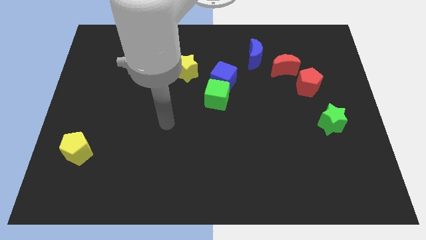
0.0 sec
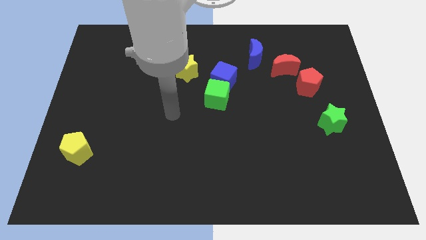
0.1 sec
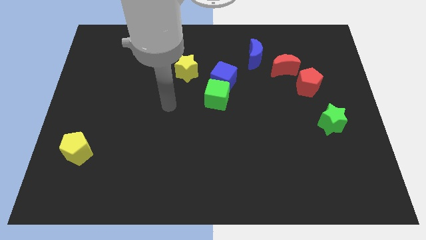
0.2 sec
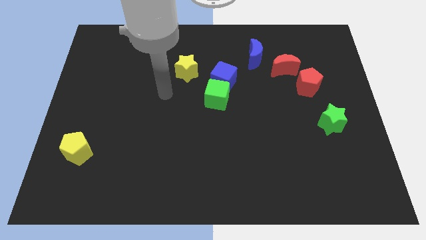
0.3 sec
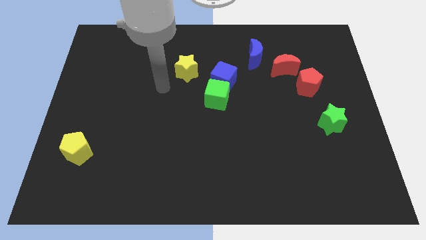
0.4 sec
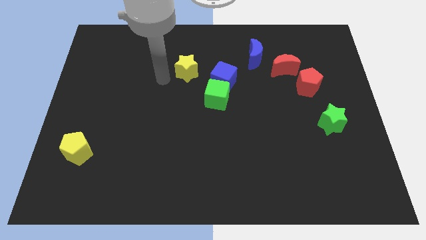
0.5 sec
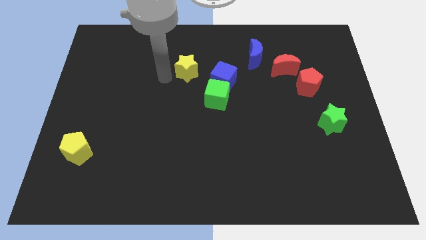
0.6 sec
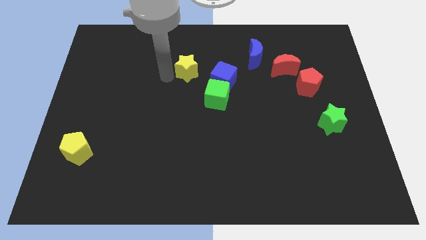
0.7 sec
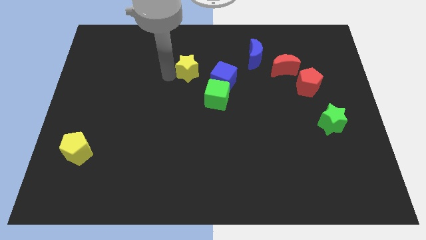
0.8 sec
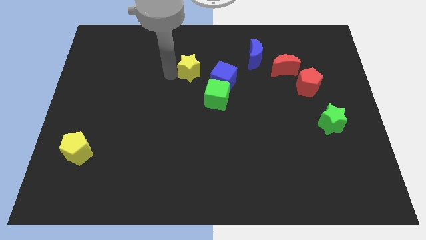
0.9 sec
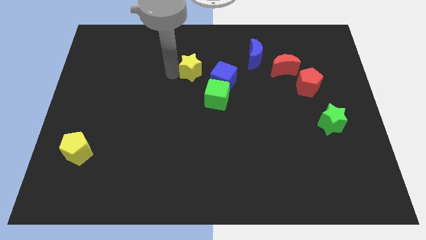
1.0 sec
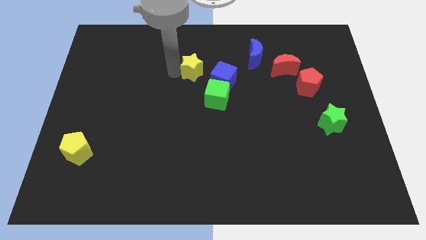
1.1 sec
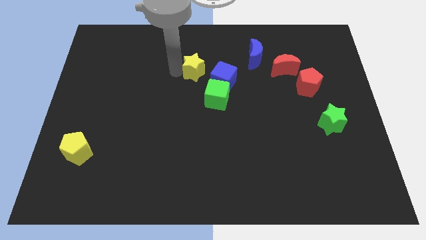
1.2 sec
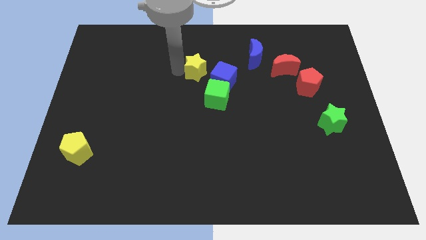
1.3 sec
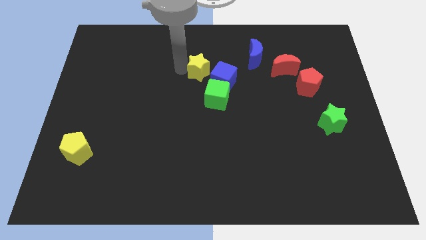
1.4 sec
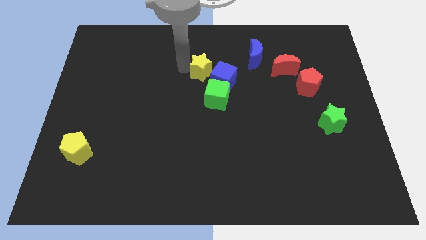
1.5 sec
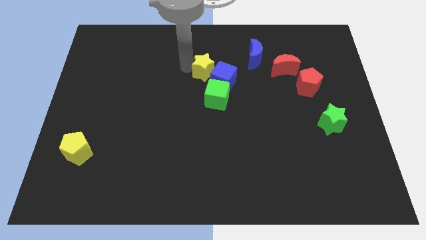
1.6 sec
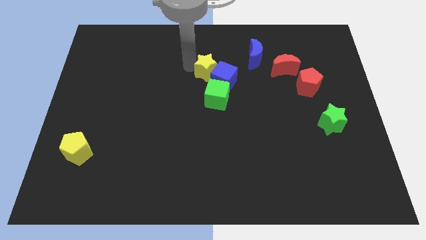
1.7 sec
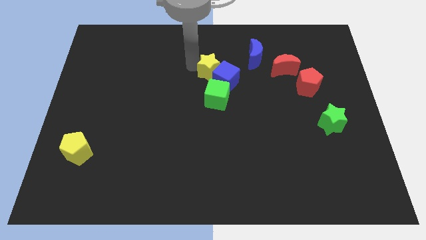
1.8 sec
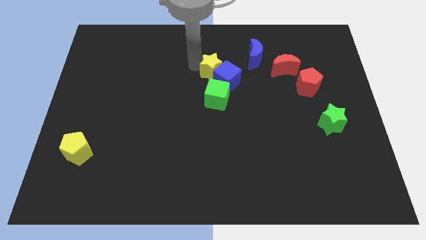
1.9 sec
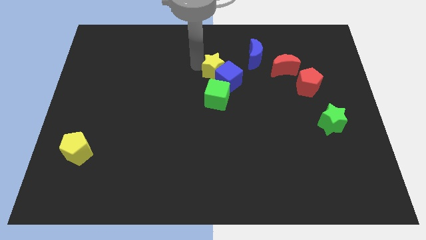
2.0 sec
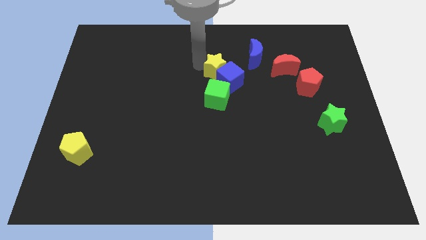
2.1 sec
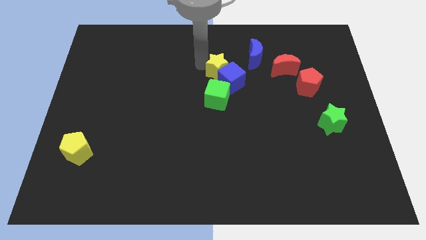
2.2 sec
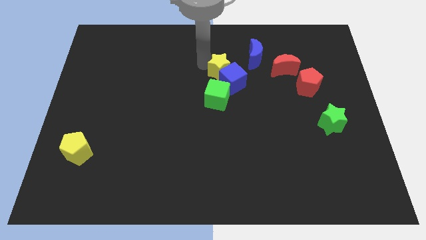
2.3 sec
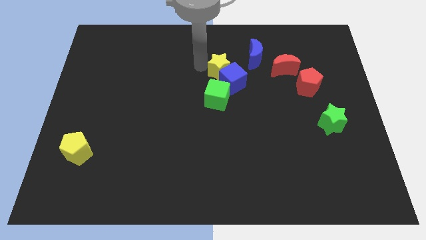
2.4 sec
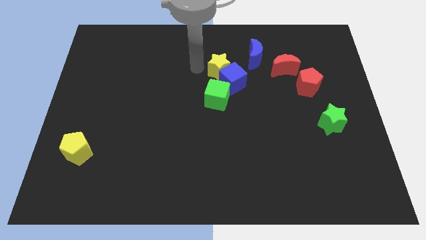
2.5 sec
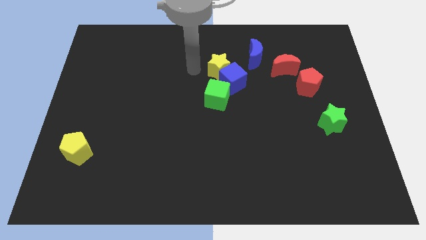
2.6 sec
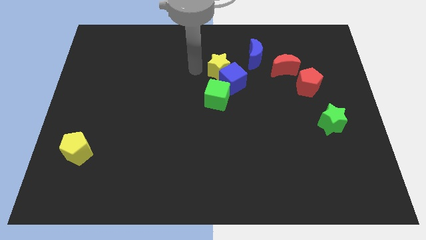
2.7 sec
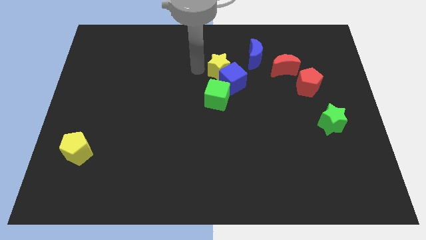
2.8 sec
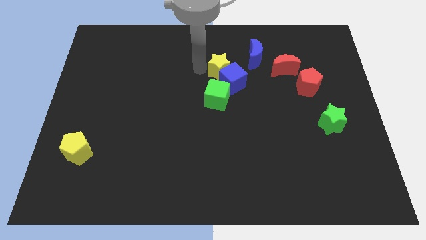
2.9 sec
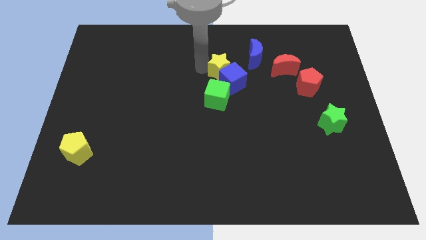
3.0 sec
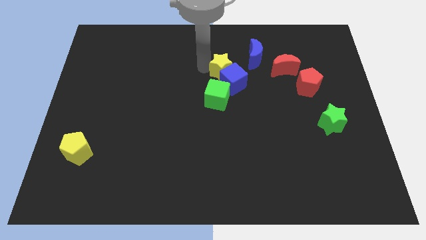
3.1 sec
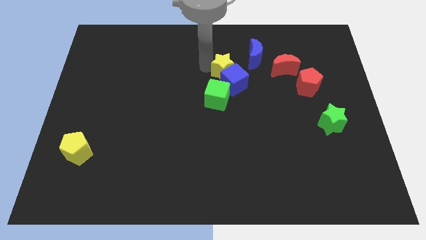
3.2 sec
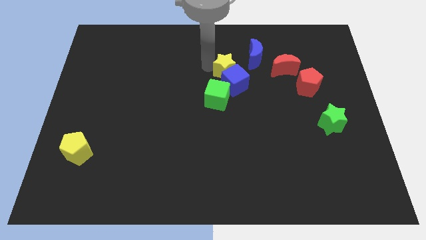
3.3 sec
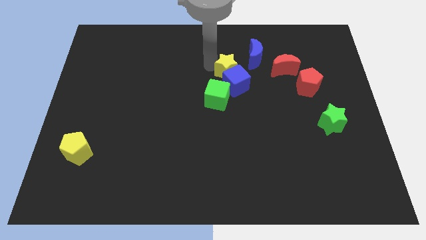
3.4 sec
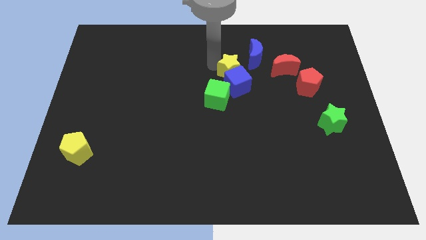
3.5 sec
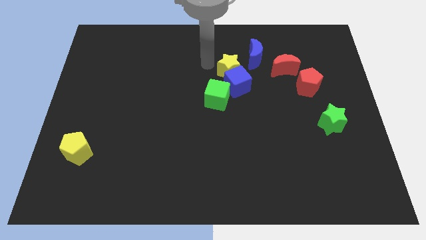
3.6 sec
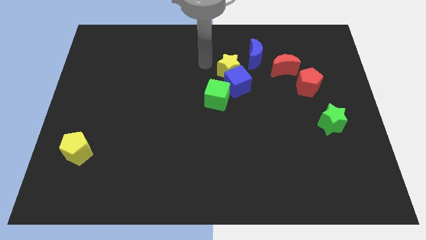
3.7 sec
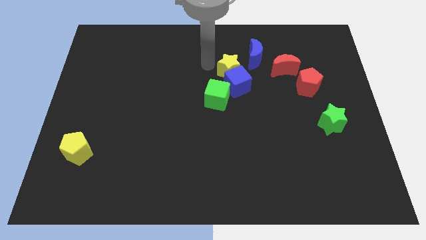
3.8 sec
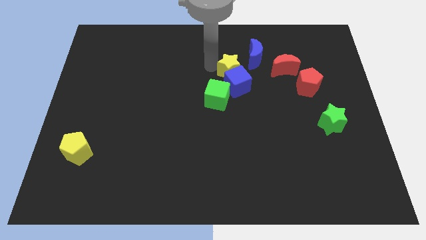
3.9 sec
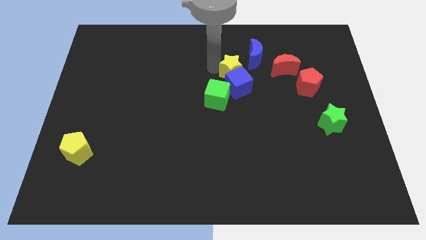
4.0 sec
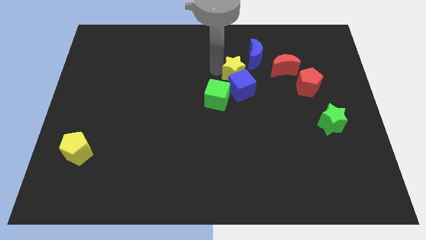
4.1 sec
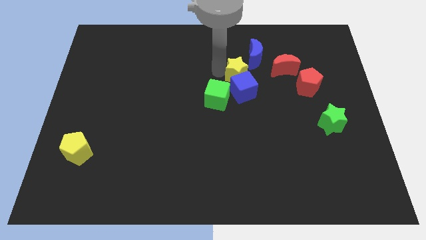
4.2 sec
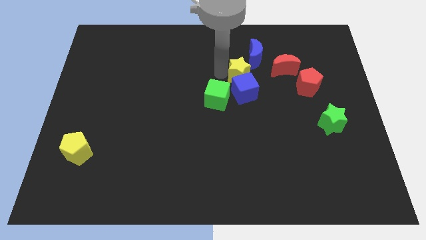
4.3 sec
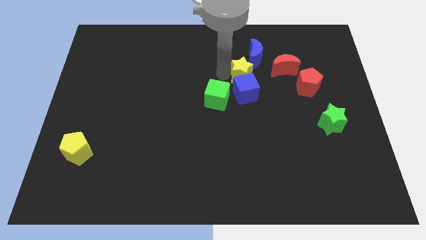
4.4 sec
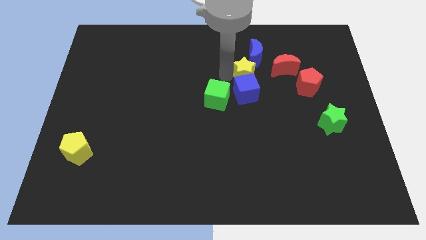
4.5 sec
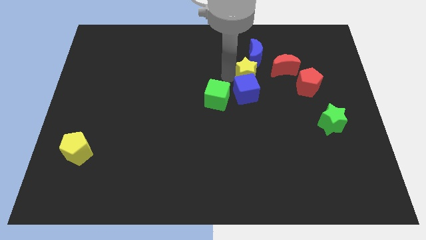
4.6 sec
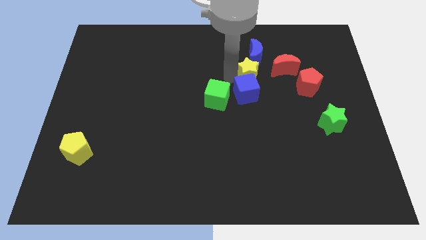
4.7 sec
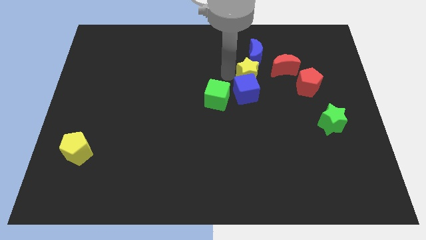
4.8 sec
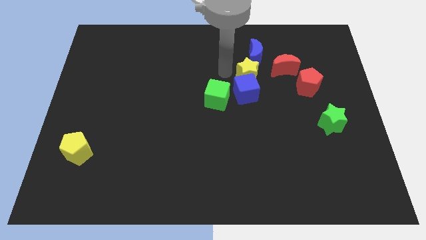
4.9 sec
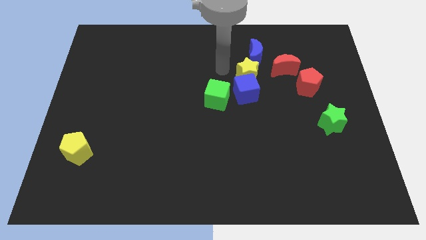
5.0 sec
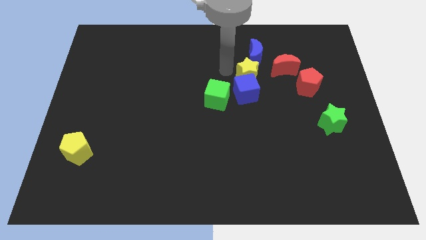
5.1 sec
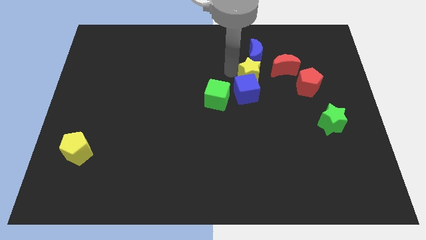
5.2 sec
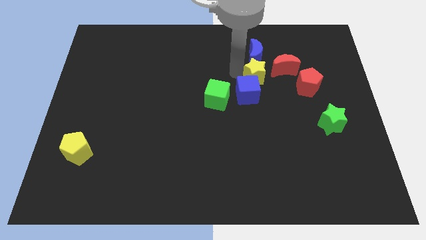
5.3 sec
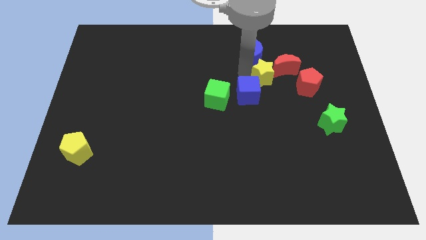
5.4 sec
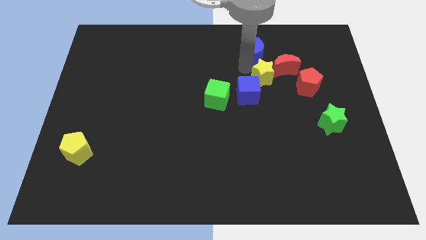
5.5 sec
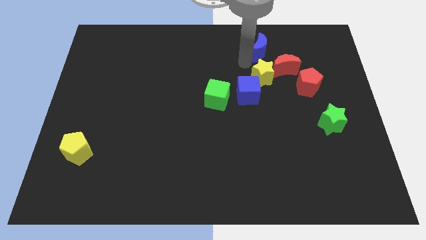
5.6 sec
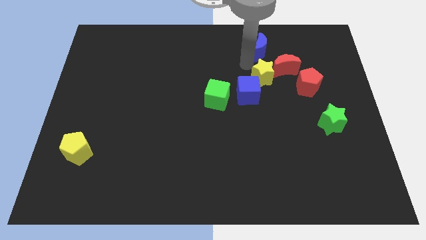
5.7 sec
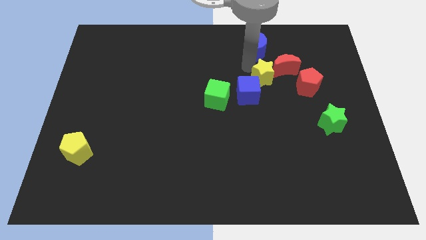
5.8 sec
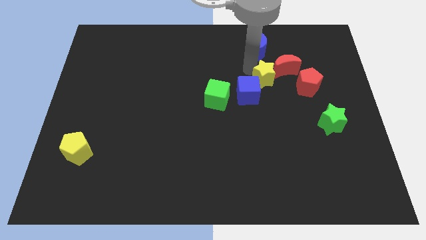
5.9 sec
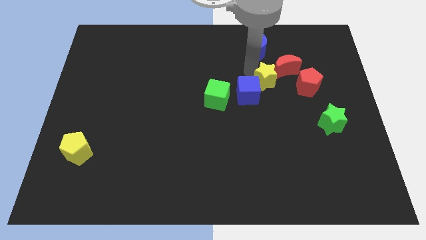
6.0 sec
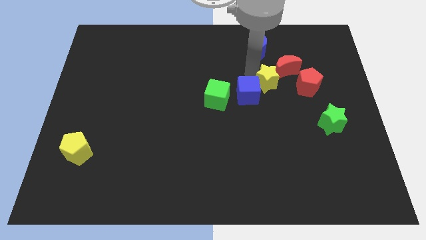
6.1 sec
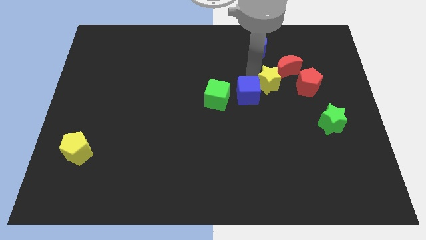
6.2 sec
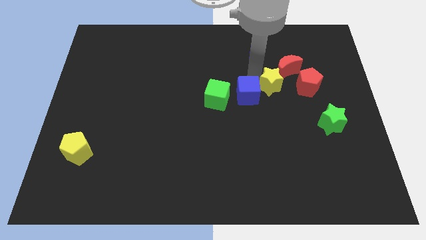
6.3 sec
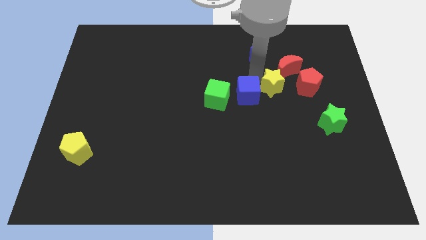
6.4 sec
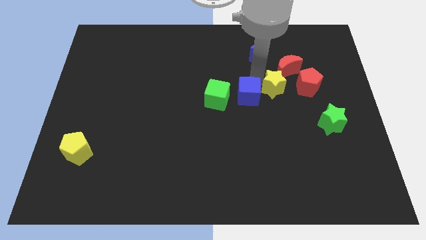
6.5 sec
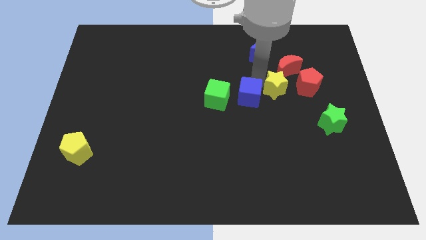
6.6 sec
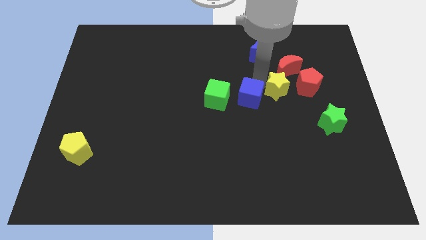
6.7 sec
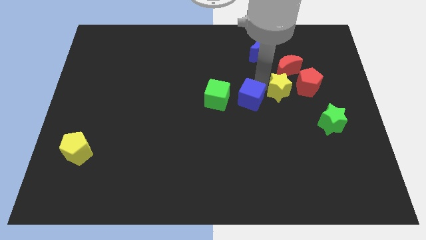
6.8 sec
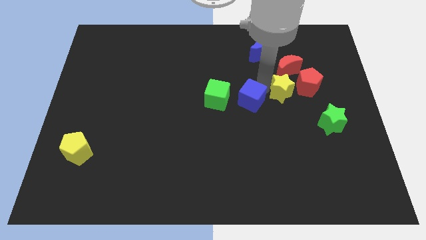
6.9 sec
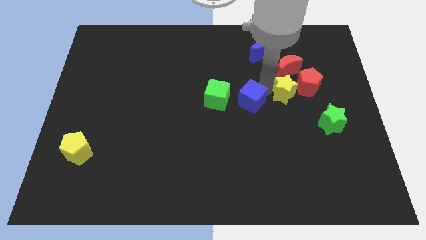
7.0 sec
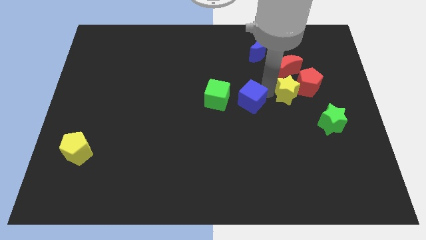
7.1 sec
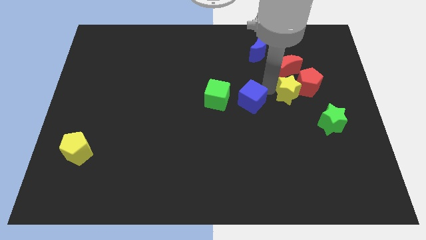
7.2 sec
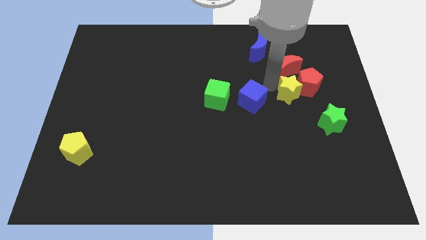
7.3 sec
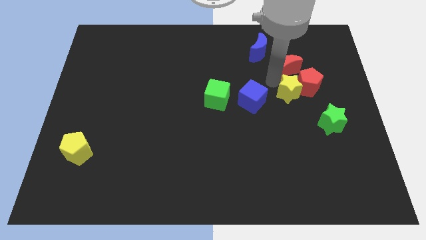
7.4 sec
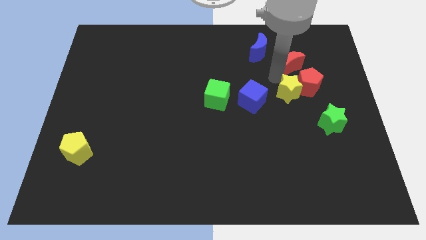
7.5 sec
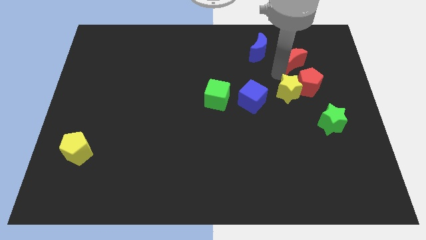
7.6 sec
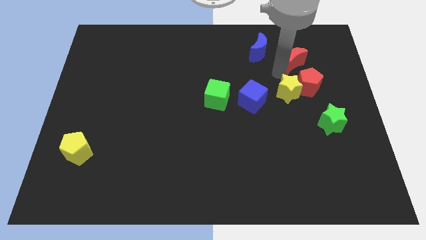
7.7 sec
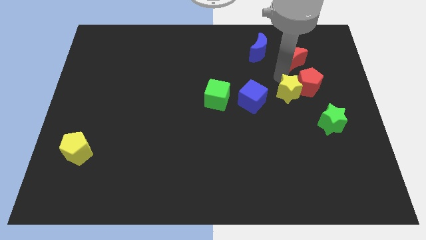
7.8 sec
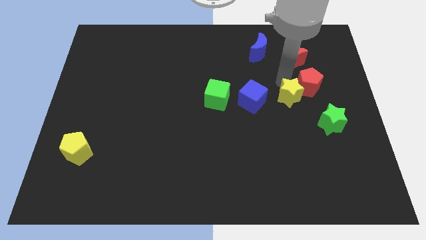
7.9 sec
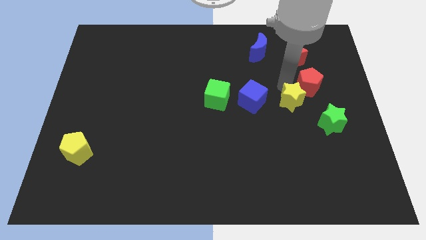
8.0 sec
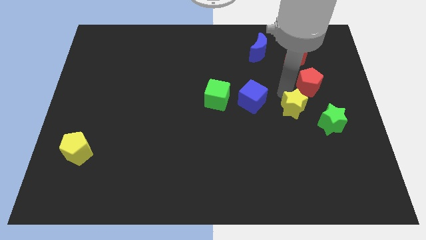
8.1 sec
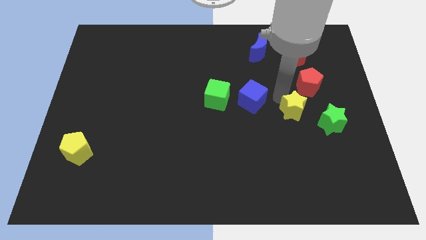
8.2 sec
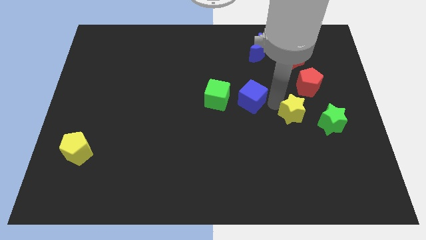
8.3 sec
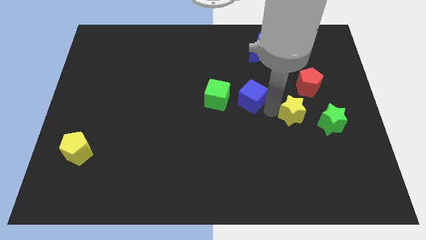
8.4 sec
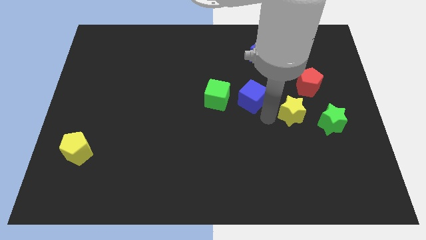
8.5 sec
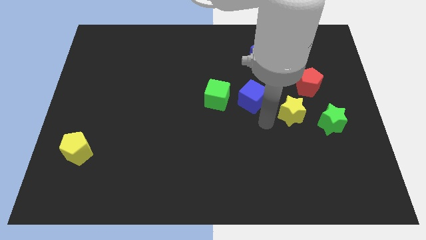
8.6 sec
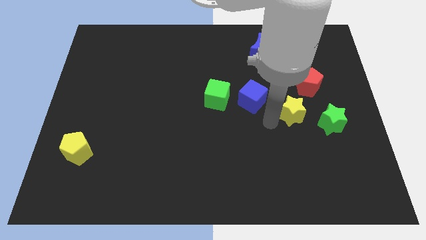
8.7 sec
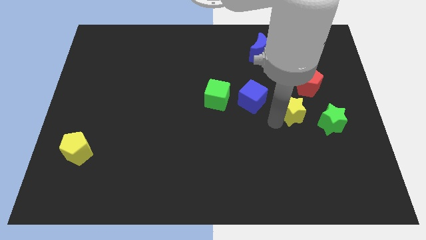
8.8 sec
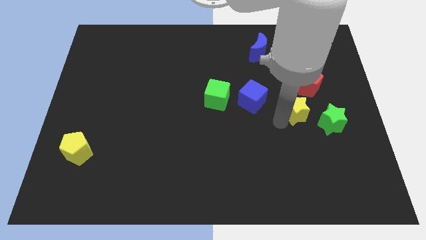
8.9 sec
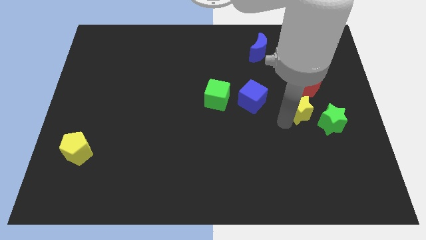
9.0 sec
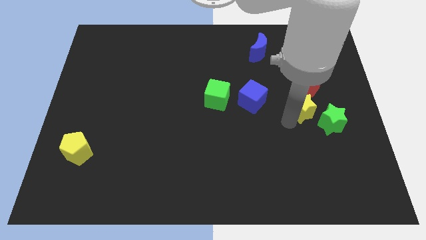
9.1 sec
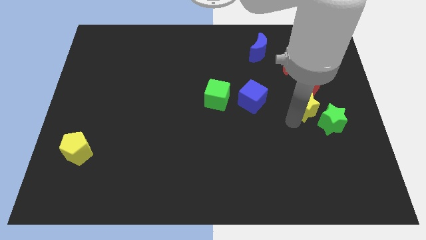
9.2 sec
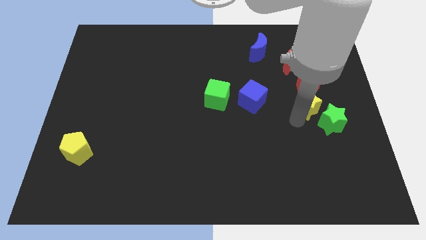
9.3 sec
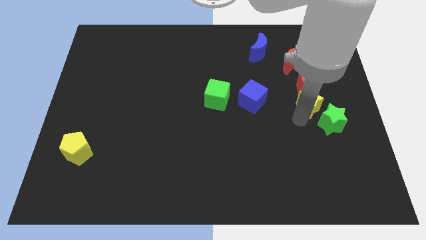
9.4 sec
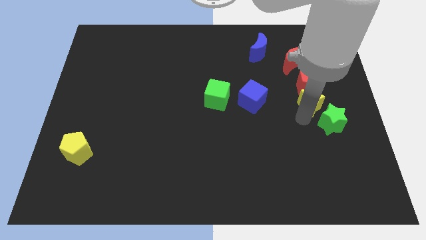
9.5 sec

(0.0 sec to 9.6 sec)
put the yellow star diagonally down and to the right of the red pentagon
